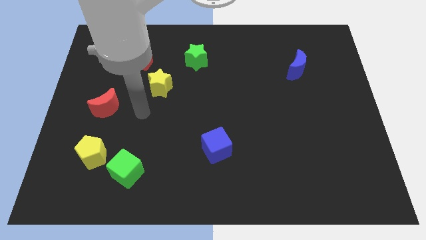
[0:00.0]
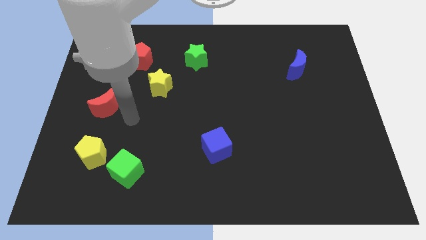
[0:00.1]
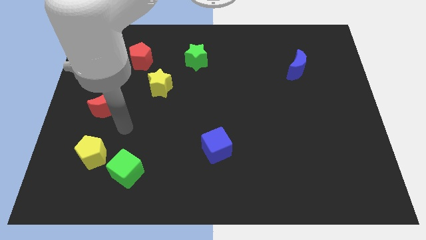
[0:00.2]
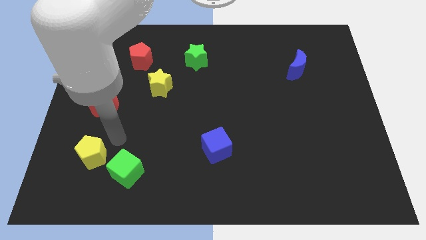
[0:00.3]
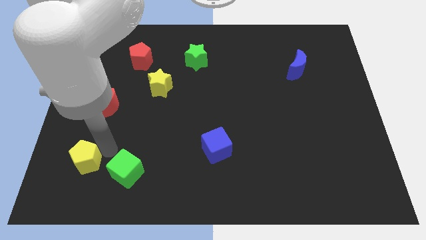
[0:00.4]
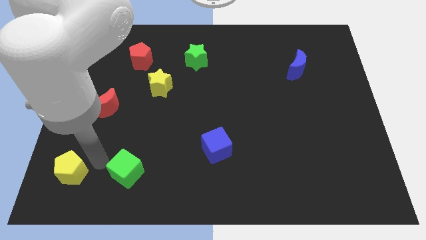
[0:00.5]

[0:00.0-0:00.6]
move the green cube away from the yellow pentagon

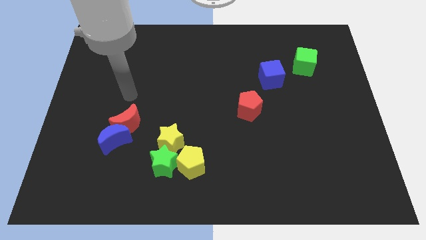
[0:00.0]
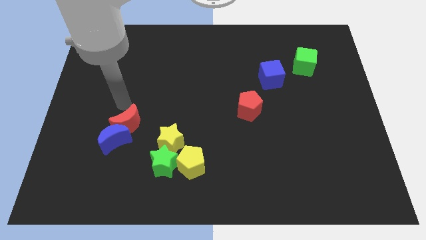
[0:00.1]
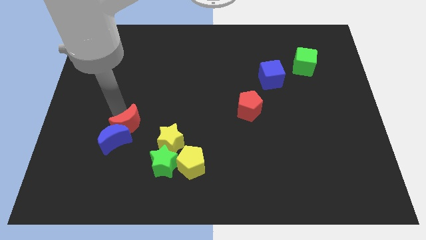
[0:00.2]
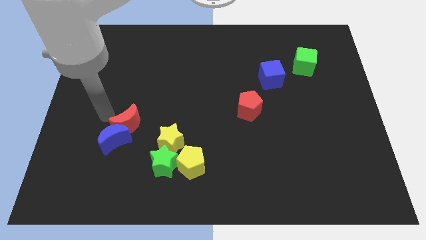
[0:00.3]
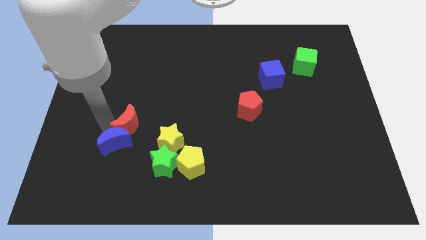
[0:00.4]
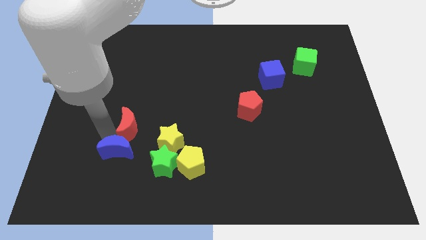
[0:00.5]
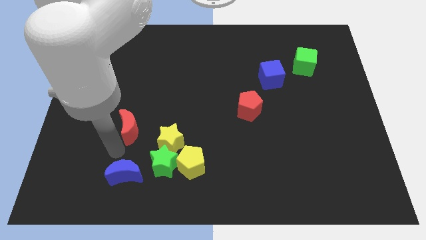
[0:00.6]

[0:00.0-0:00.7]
separate the red moon from the blue moon

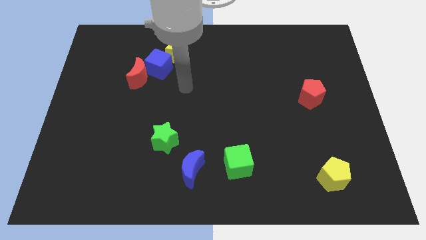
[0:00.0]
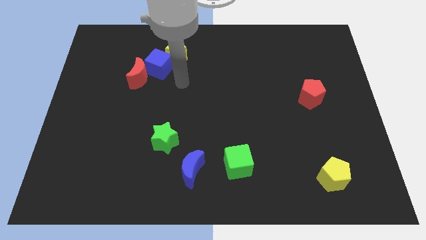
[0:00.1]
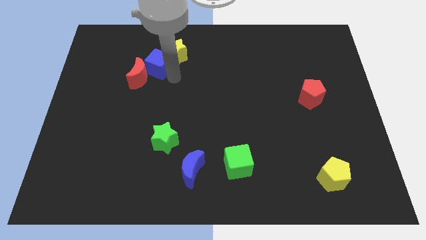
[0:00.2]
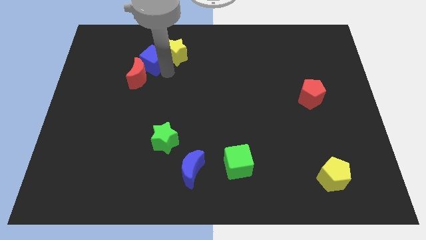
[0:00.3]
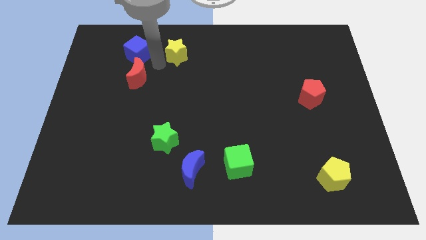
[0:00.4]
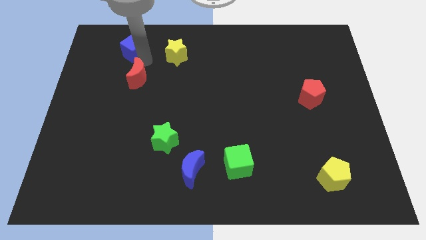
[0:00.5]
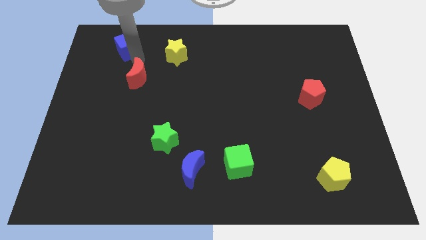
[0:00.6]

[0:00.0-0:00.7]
separate the red moon from the blue cube

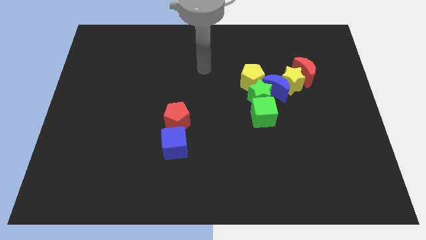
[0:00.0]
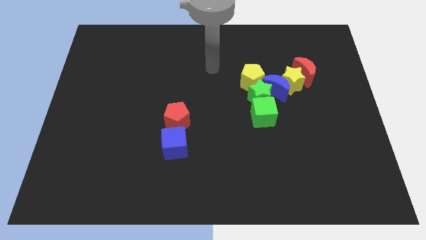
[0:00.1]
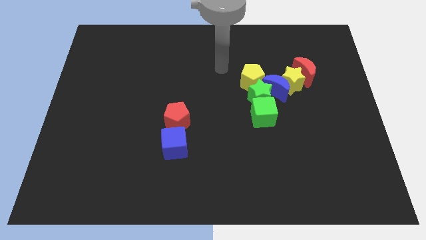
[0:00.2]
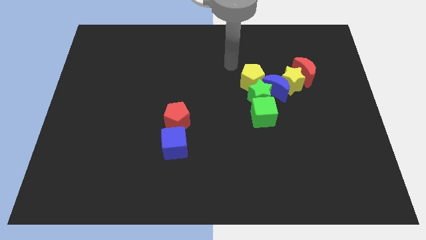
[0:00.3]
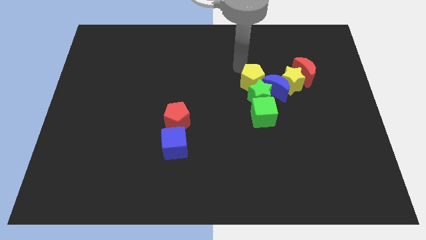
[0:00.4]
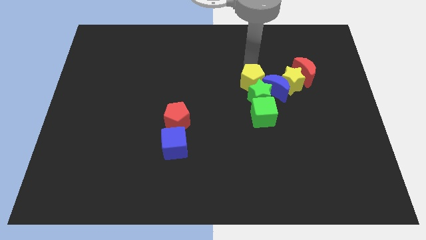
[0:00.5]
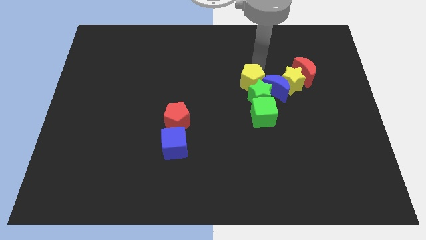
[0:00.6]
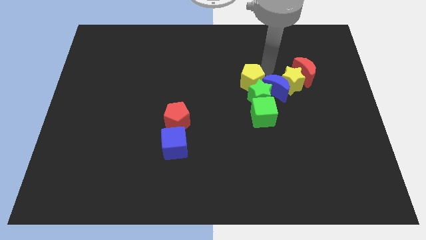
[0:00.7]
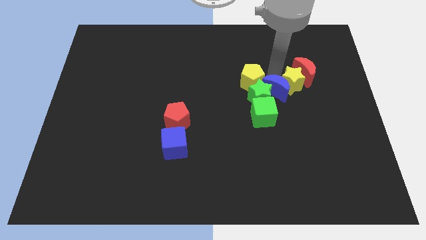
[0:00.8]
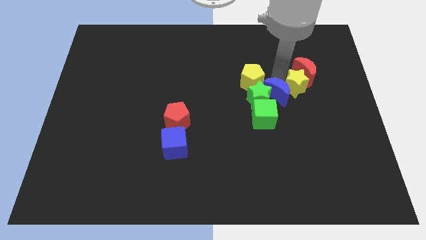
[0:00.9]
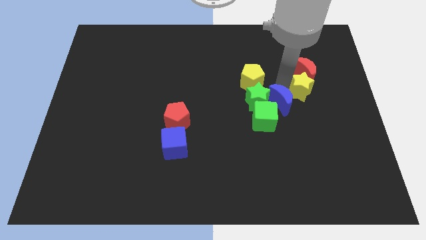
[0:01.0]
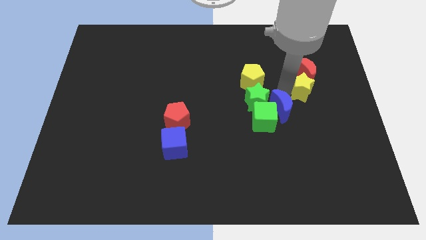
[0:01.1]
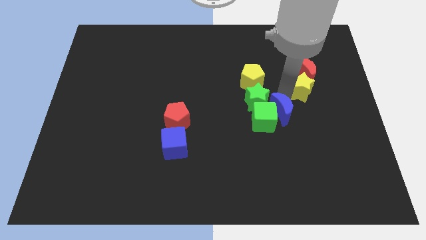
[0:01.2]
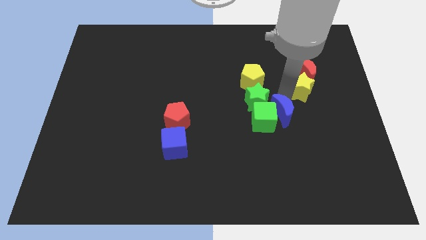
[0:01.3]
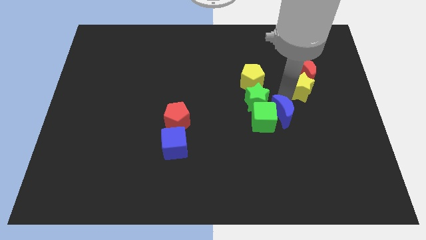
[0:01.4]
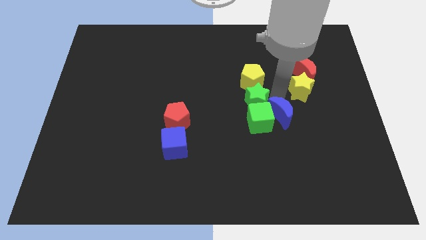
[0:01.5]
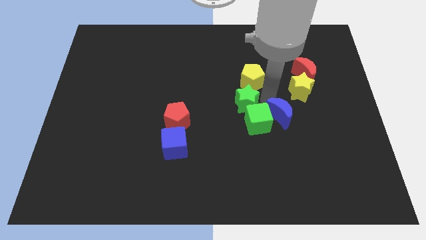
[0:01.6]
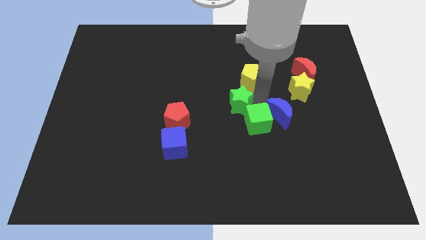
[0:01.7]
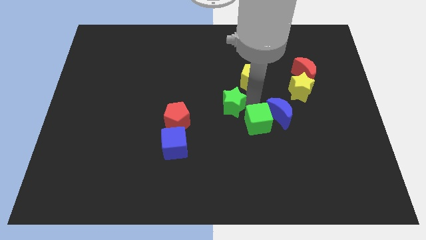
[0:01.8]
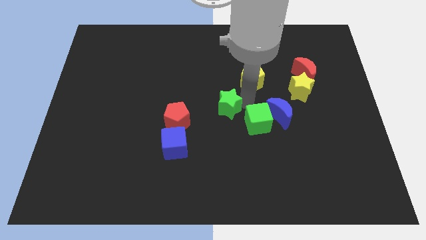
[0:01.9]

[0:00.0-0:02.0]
pull the green star apart from the group

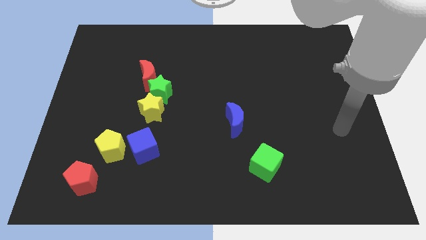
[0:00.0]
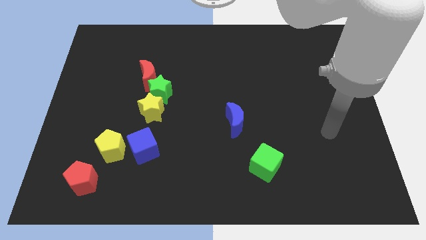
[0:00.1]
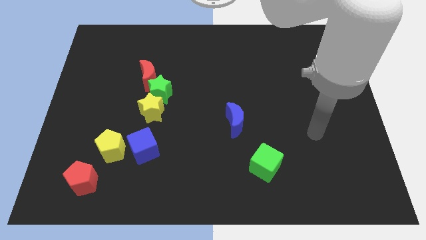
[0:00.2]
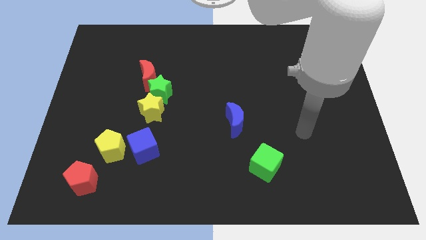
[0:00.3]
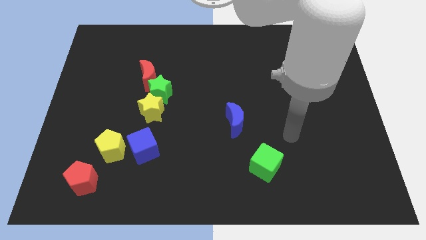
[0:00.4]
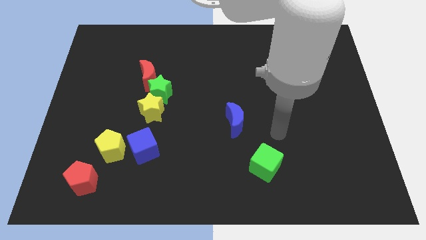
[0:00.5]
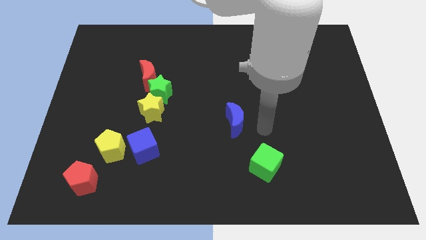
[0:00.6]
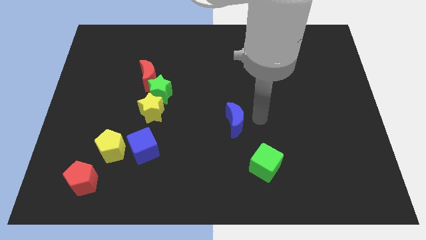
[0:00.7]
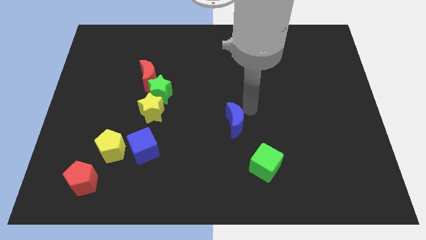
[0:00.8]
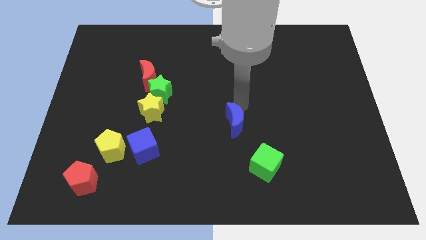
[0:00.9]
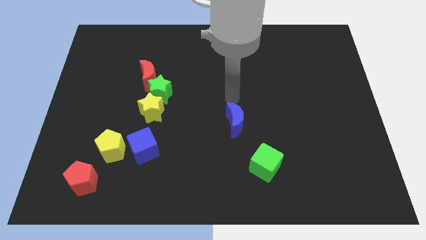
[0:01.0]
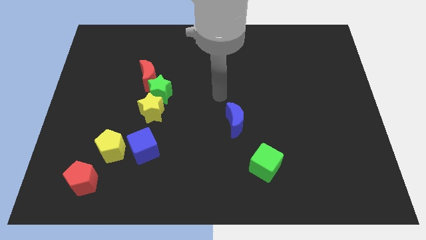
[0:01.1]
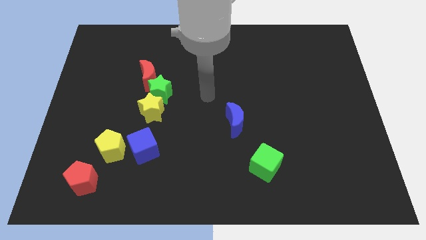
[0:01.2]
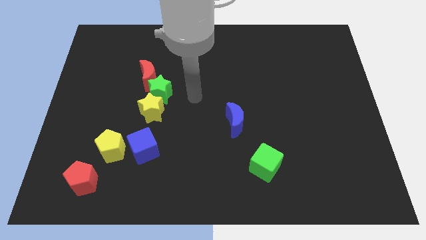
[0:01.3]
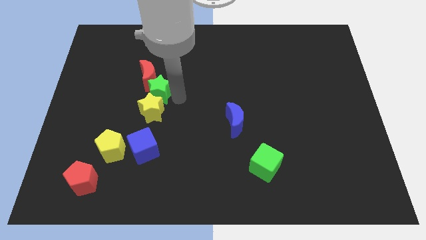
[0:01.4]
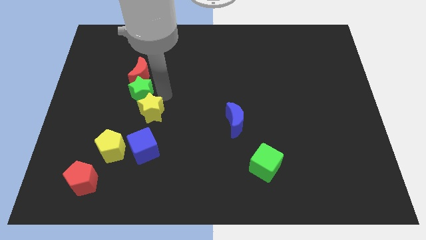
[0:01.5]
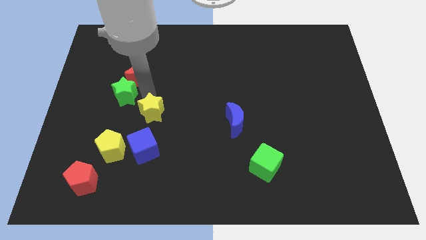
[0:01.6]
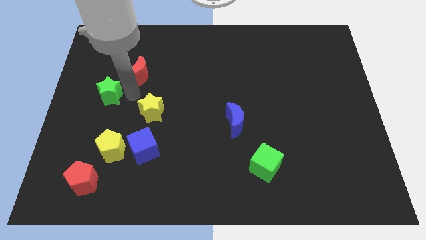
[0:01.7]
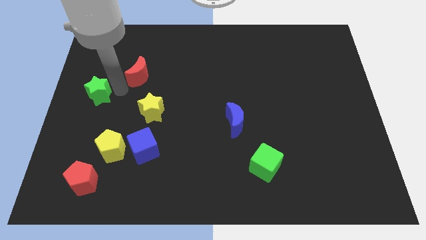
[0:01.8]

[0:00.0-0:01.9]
move the red moon away from the green star

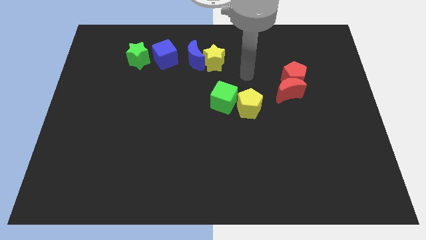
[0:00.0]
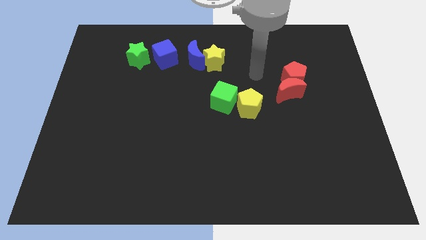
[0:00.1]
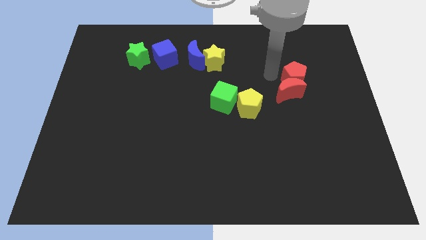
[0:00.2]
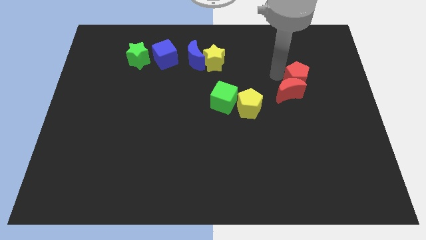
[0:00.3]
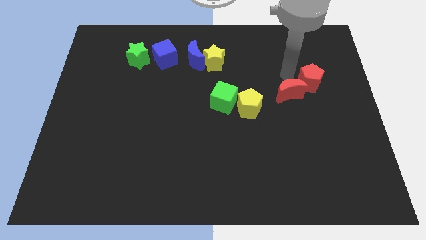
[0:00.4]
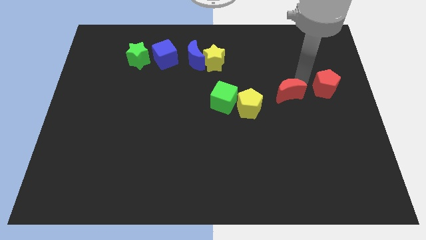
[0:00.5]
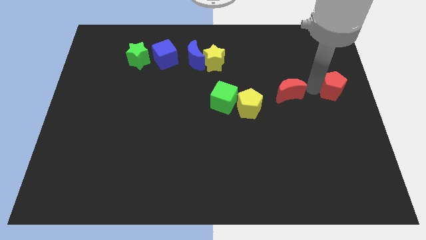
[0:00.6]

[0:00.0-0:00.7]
separate the red moon from the red pentagon

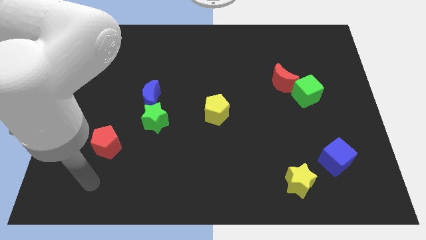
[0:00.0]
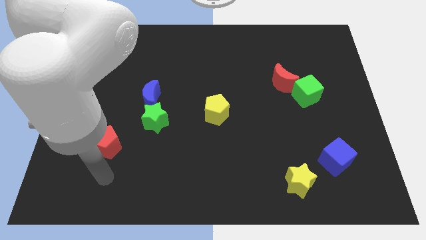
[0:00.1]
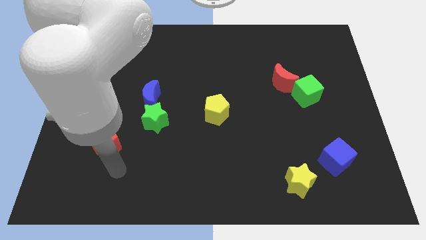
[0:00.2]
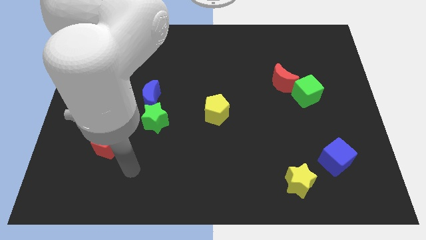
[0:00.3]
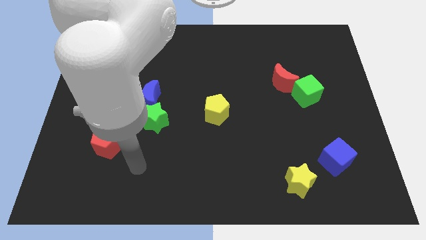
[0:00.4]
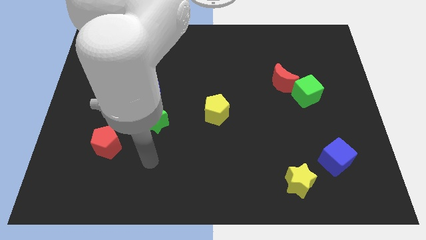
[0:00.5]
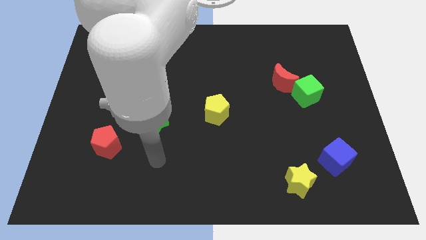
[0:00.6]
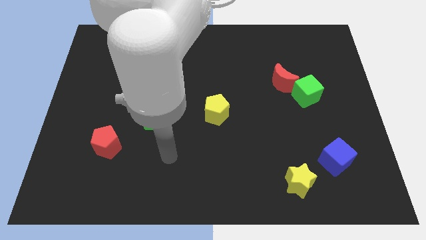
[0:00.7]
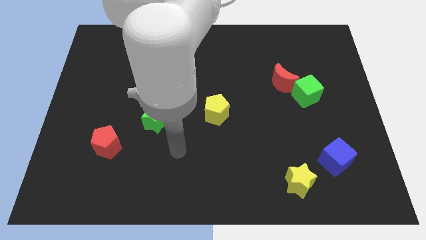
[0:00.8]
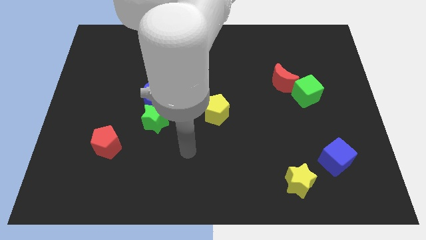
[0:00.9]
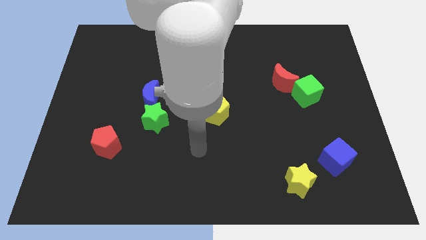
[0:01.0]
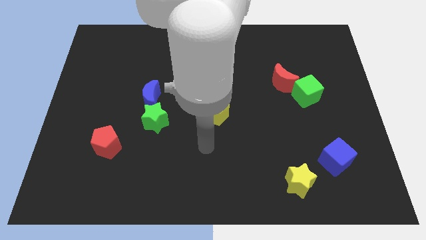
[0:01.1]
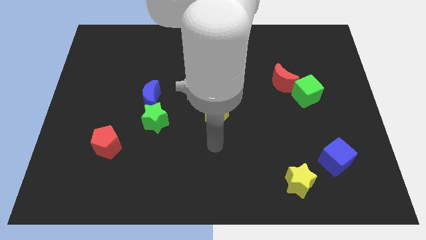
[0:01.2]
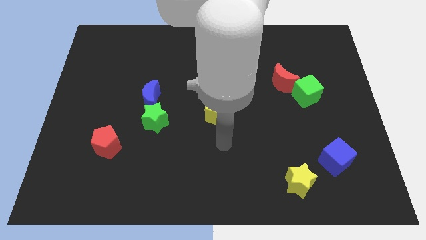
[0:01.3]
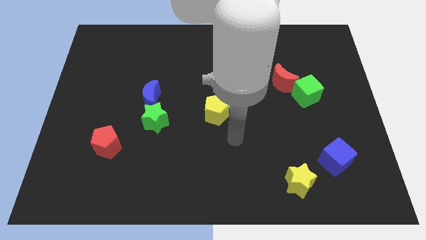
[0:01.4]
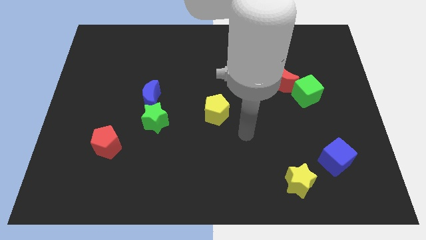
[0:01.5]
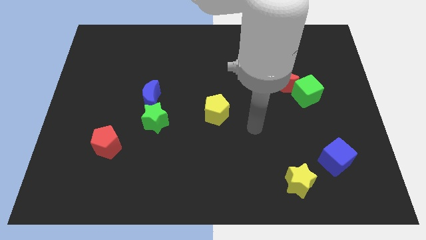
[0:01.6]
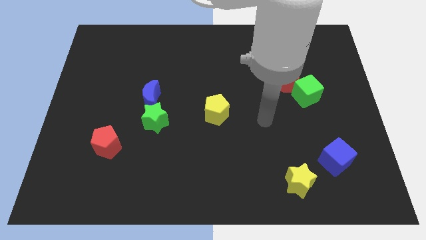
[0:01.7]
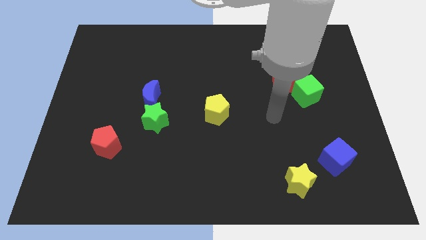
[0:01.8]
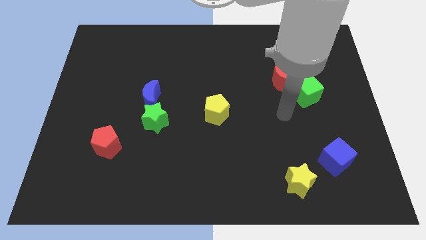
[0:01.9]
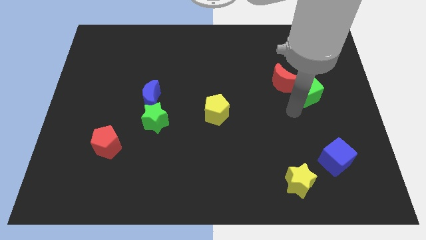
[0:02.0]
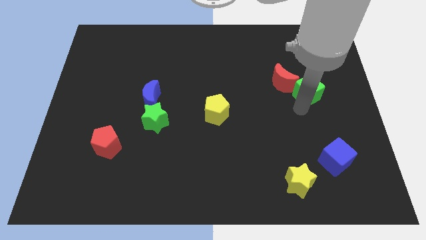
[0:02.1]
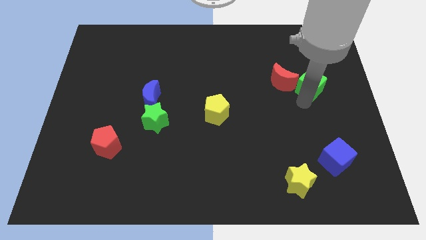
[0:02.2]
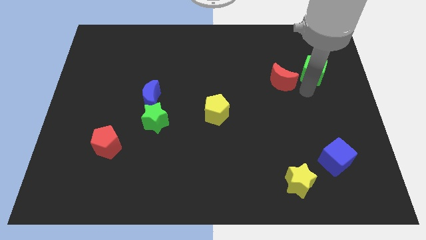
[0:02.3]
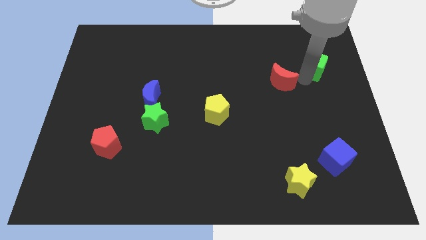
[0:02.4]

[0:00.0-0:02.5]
separate the red moon from the green cube

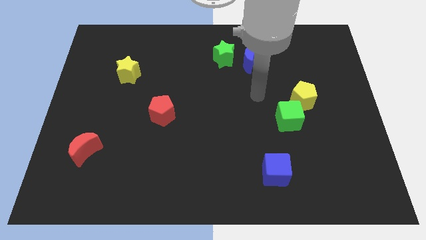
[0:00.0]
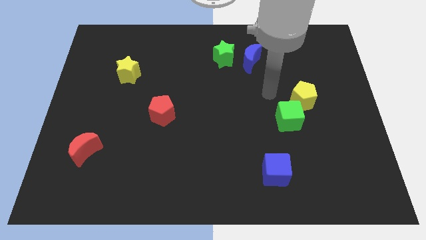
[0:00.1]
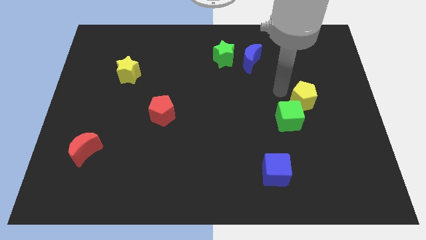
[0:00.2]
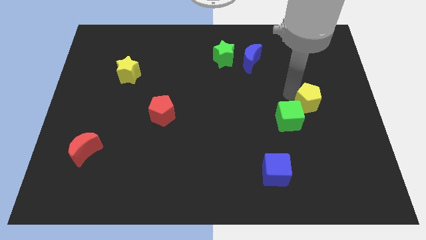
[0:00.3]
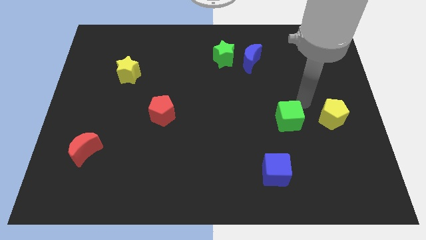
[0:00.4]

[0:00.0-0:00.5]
separate the green cube from the yellow pentagon
